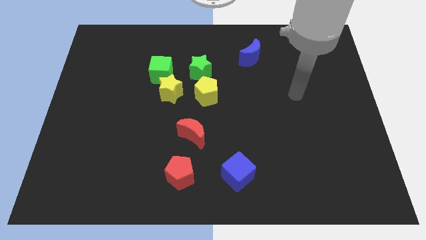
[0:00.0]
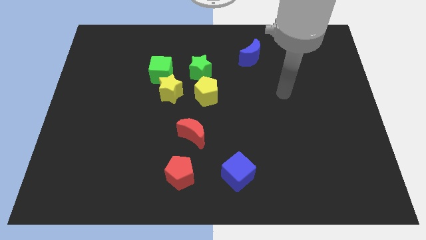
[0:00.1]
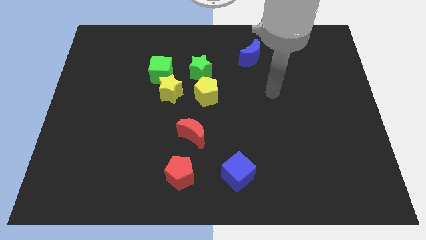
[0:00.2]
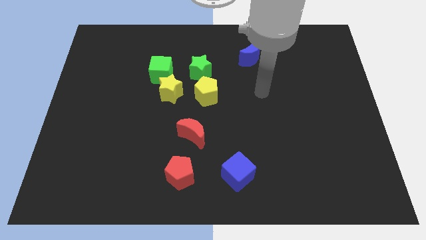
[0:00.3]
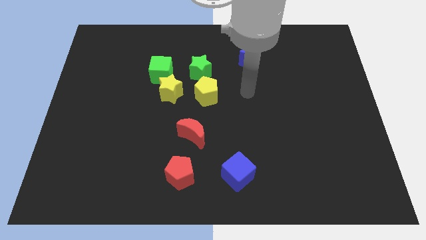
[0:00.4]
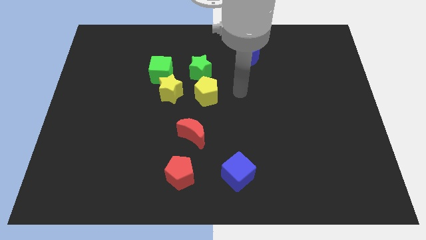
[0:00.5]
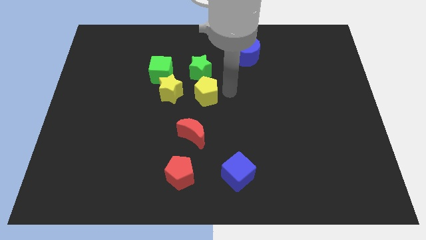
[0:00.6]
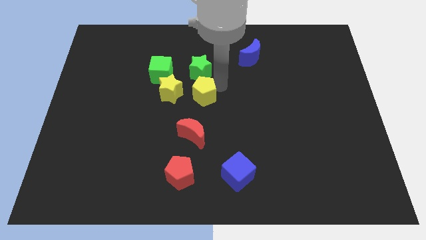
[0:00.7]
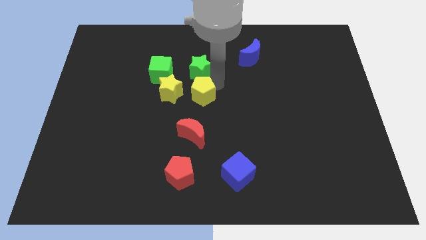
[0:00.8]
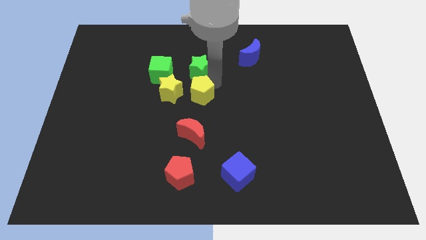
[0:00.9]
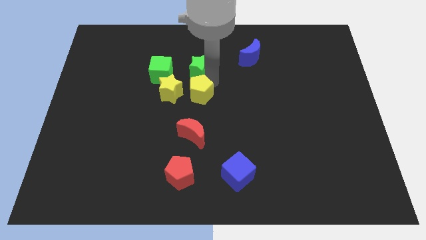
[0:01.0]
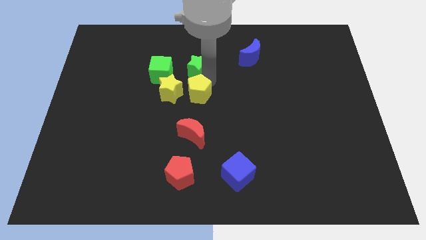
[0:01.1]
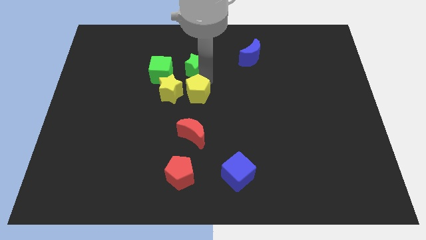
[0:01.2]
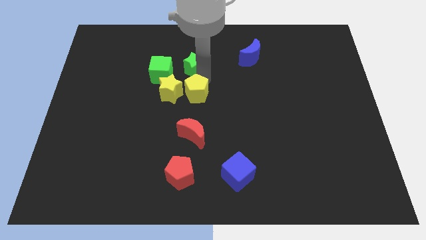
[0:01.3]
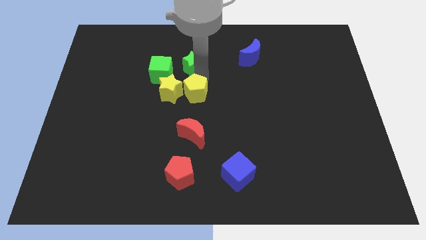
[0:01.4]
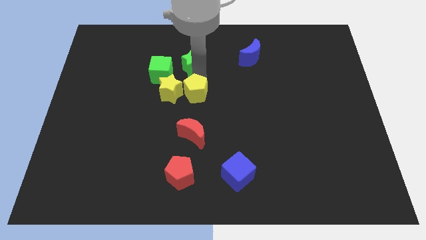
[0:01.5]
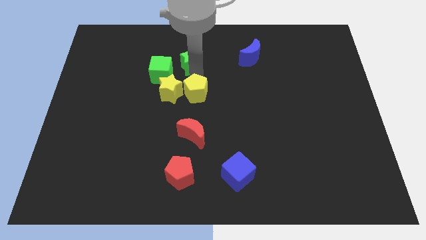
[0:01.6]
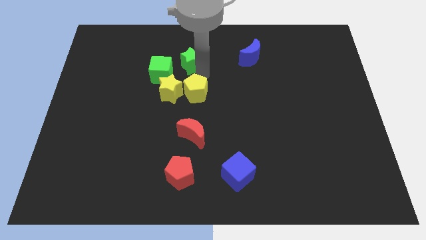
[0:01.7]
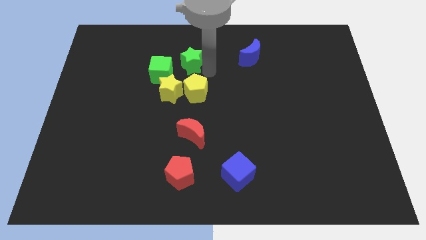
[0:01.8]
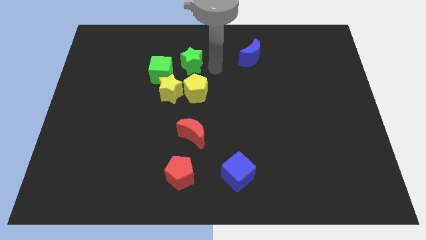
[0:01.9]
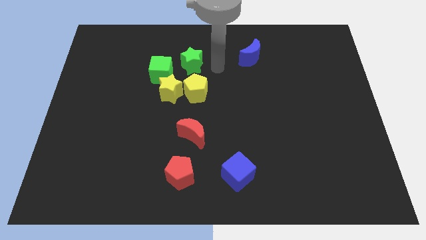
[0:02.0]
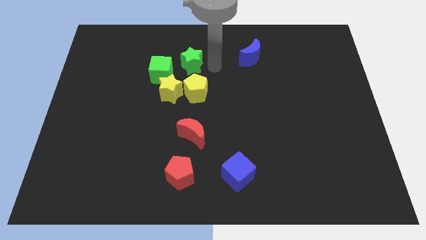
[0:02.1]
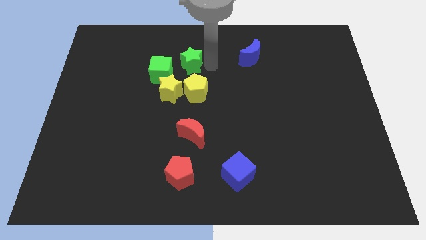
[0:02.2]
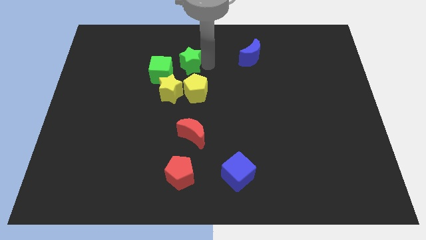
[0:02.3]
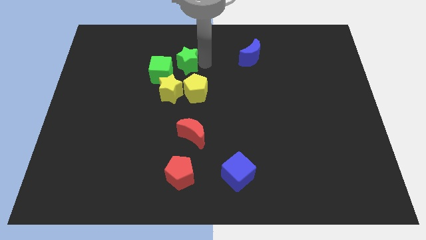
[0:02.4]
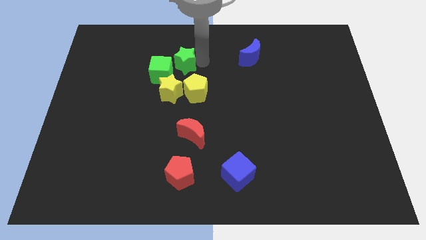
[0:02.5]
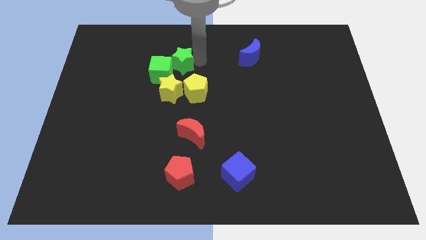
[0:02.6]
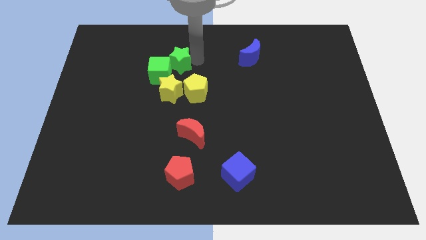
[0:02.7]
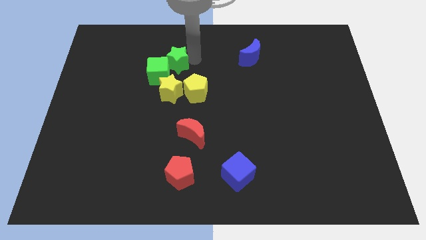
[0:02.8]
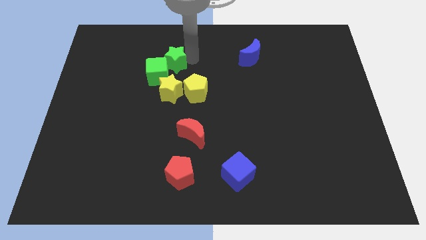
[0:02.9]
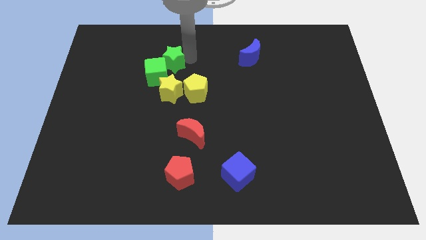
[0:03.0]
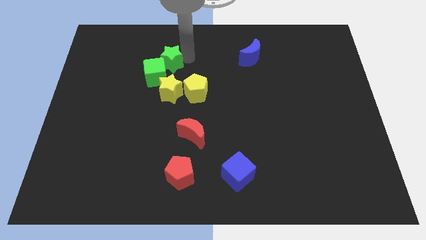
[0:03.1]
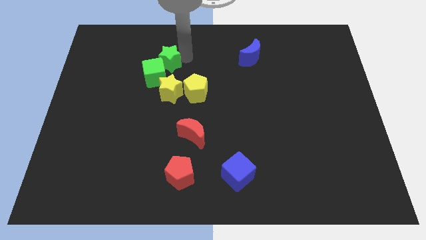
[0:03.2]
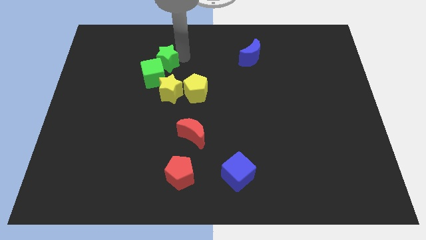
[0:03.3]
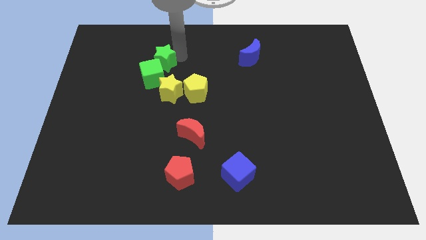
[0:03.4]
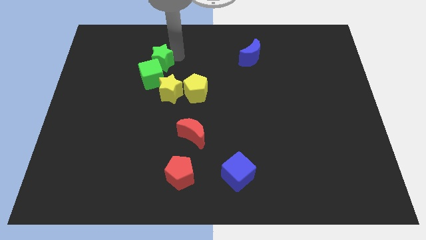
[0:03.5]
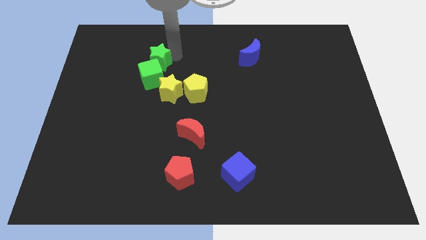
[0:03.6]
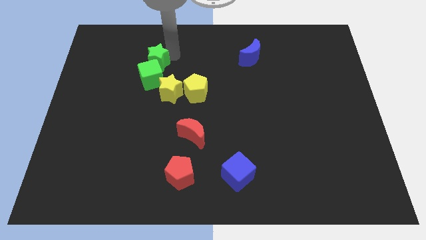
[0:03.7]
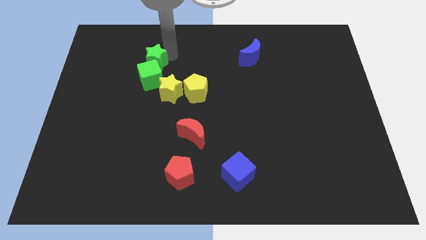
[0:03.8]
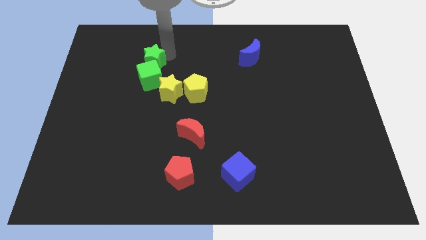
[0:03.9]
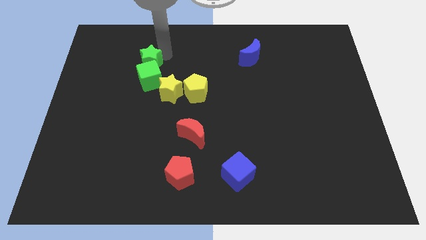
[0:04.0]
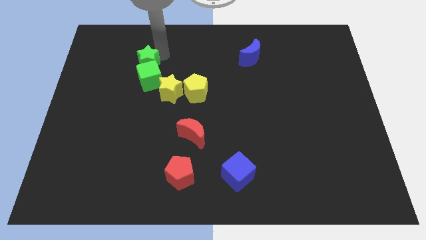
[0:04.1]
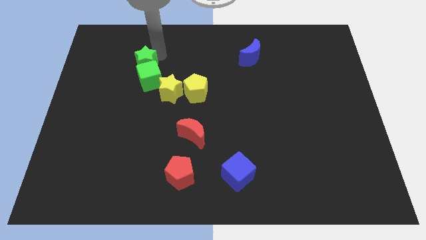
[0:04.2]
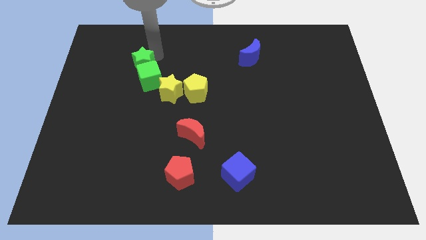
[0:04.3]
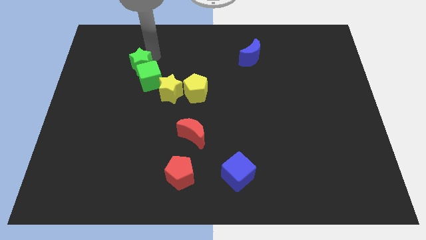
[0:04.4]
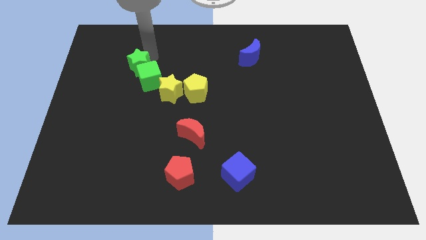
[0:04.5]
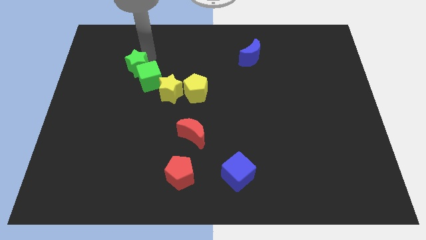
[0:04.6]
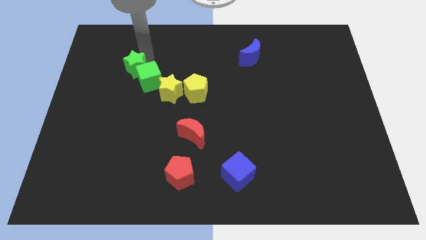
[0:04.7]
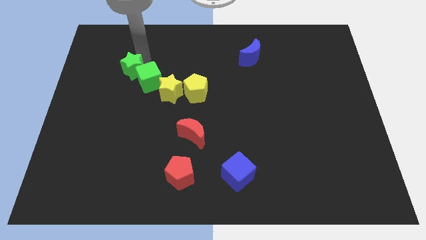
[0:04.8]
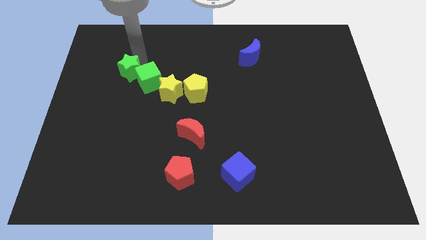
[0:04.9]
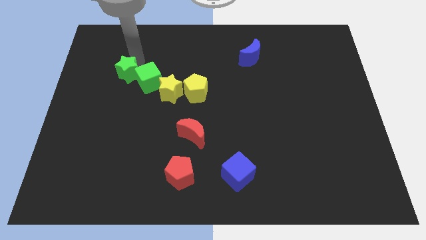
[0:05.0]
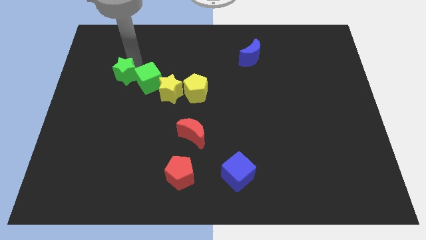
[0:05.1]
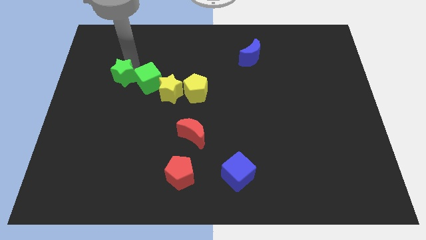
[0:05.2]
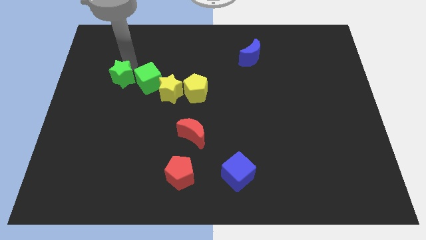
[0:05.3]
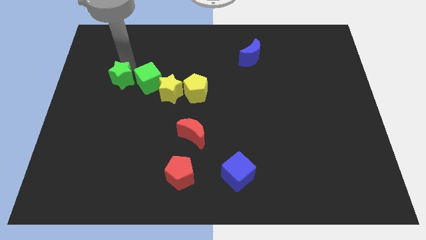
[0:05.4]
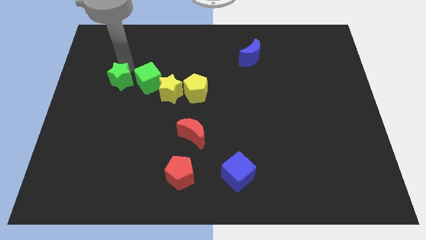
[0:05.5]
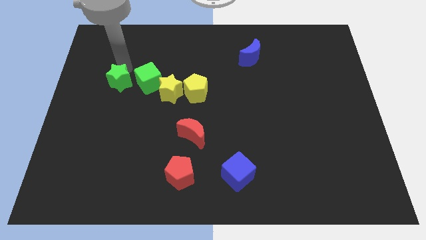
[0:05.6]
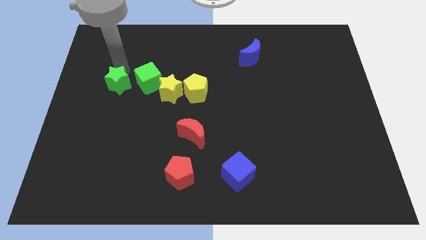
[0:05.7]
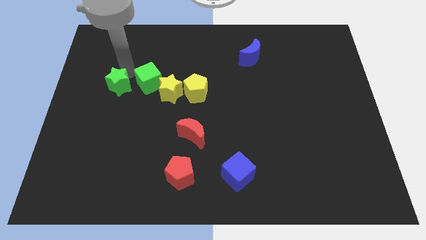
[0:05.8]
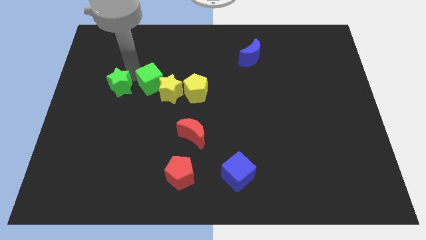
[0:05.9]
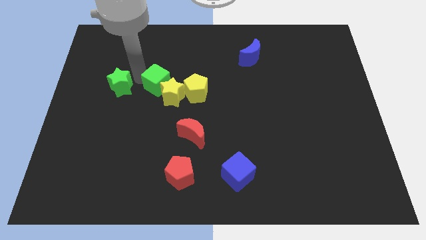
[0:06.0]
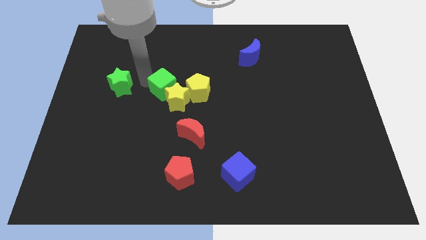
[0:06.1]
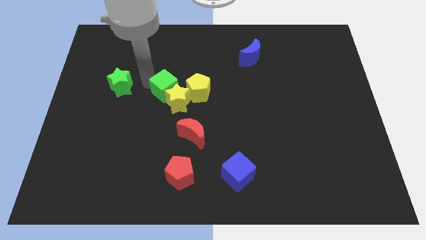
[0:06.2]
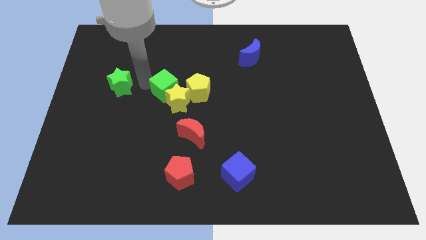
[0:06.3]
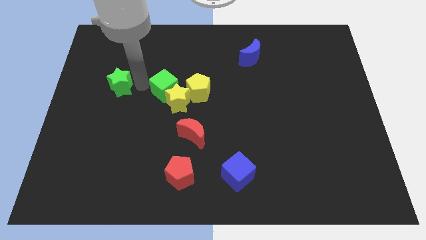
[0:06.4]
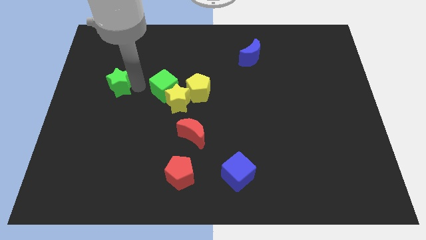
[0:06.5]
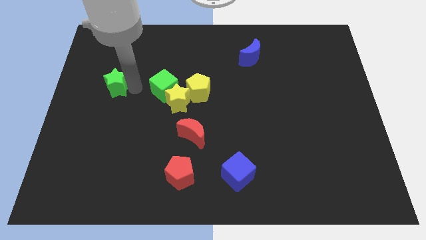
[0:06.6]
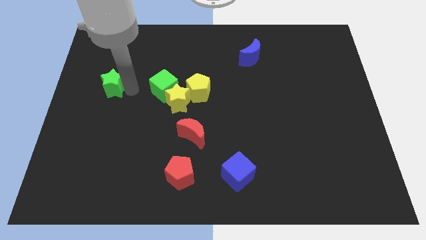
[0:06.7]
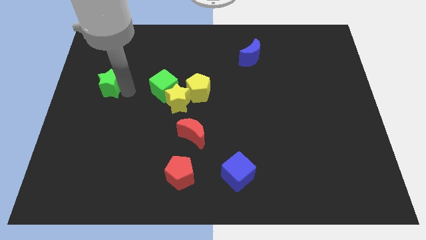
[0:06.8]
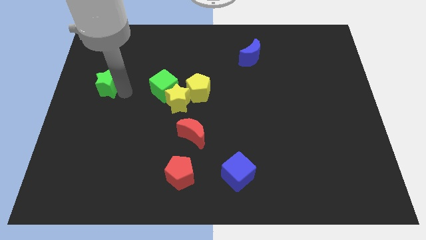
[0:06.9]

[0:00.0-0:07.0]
move the green star to the center left

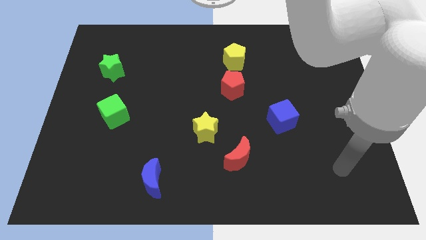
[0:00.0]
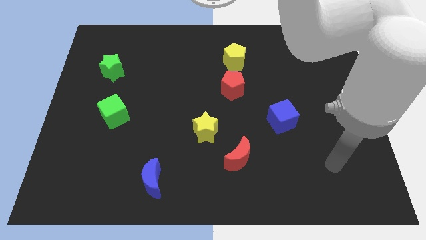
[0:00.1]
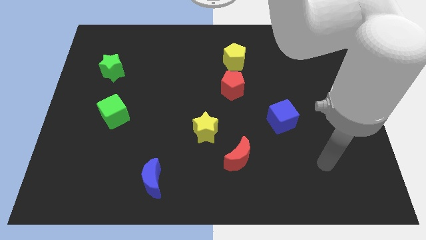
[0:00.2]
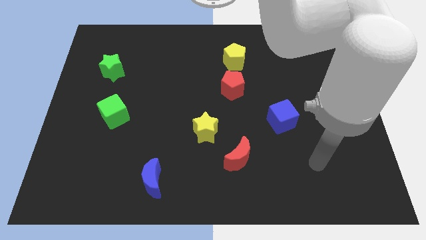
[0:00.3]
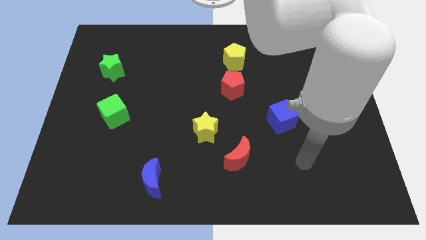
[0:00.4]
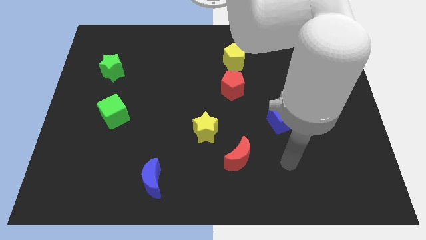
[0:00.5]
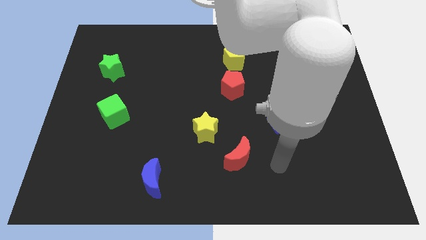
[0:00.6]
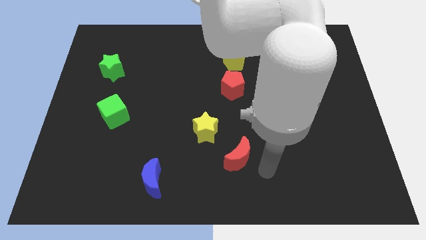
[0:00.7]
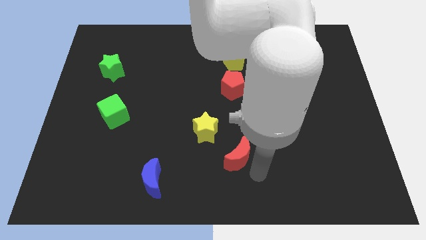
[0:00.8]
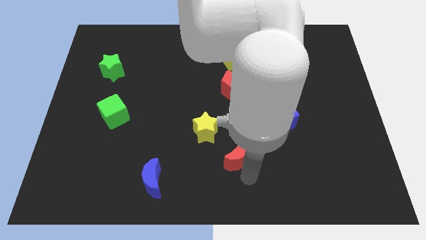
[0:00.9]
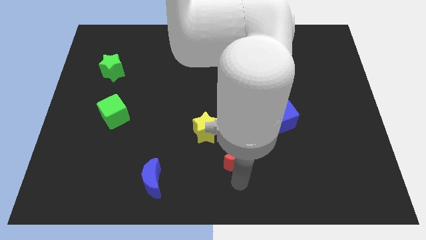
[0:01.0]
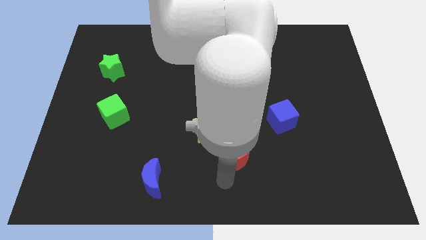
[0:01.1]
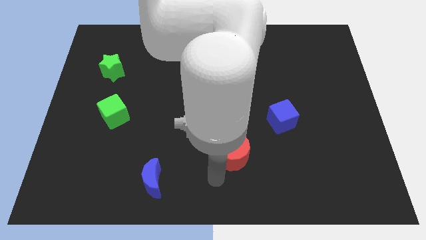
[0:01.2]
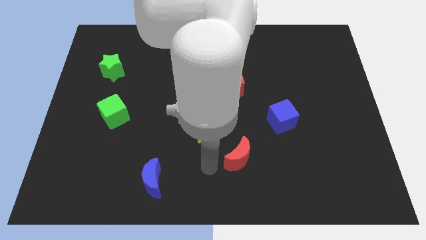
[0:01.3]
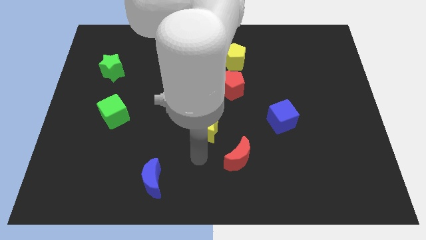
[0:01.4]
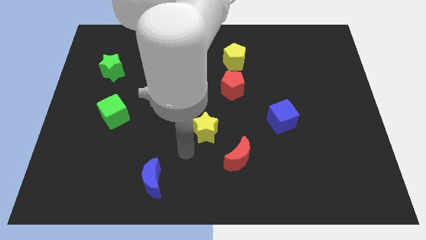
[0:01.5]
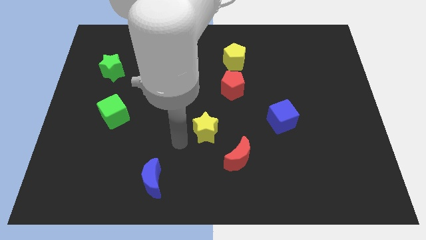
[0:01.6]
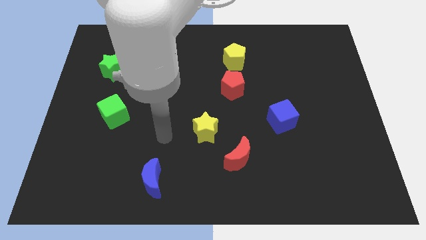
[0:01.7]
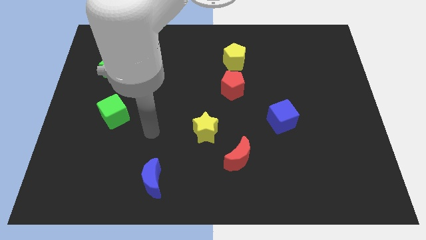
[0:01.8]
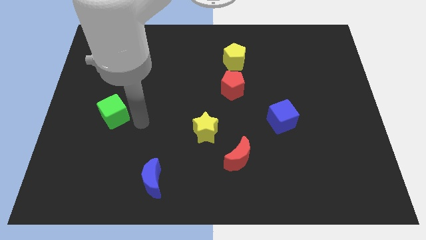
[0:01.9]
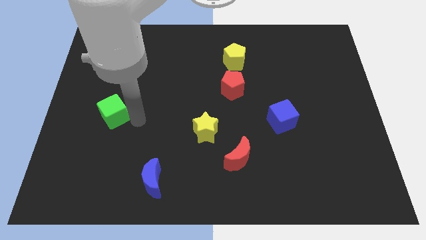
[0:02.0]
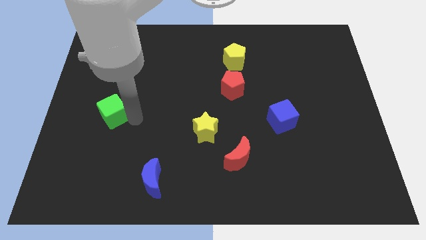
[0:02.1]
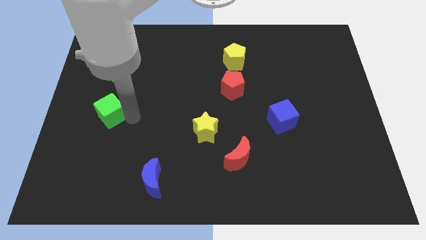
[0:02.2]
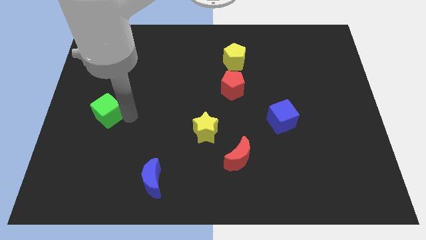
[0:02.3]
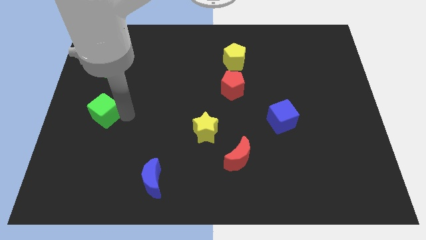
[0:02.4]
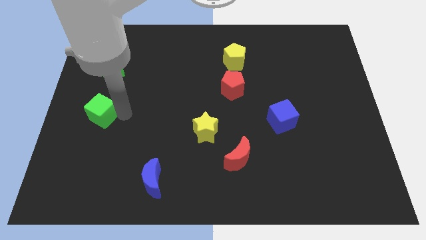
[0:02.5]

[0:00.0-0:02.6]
slide the green cube to the center left
